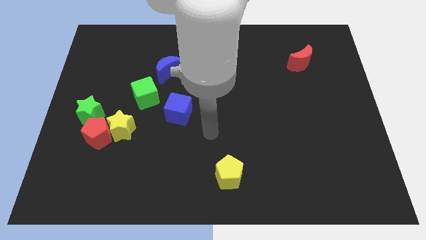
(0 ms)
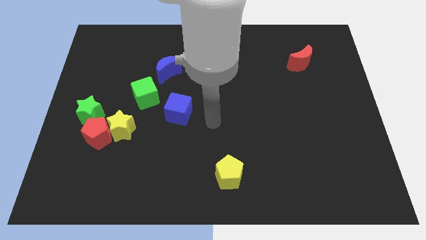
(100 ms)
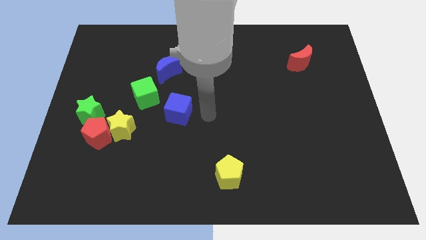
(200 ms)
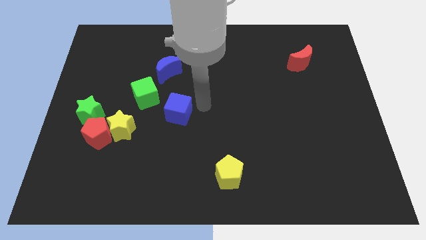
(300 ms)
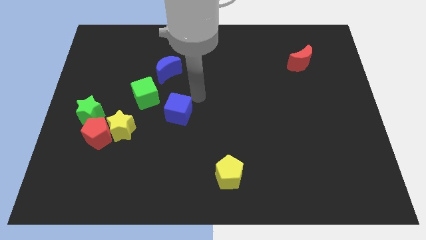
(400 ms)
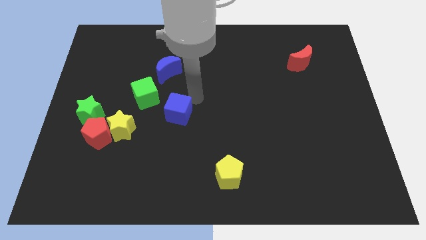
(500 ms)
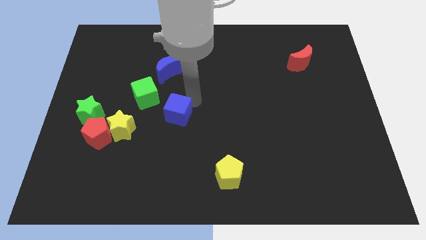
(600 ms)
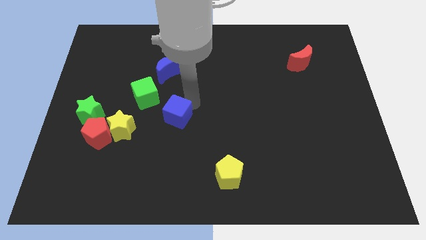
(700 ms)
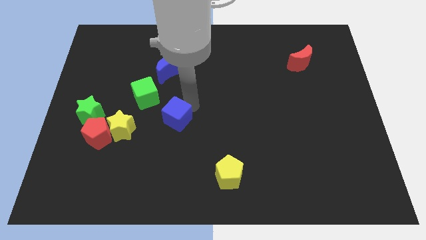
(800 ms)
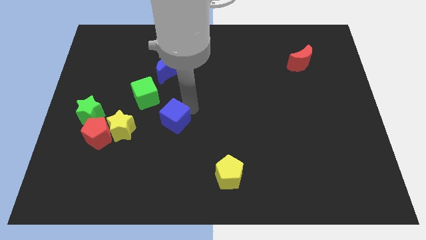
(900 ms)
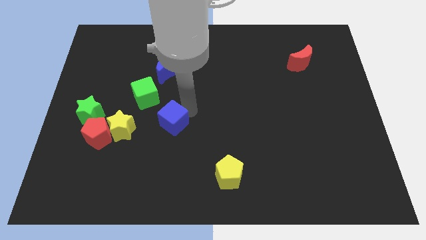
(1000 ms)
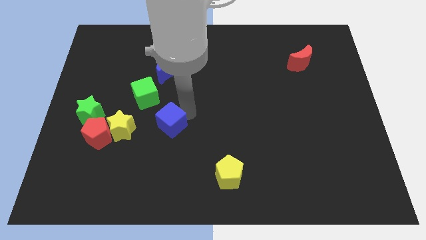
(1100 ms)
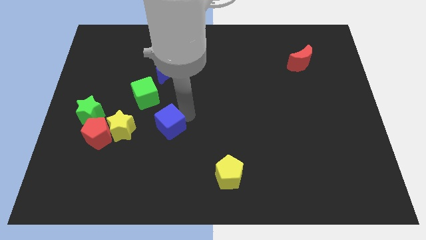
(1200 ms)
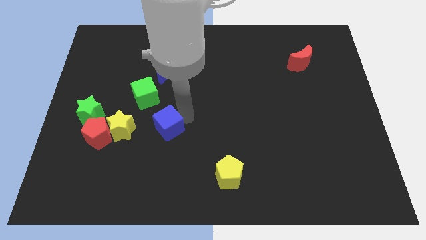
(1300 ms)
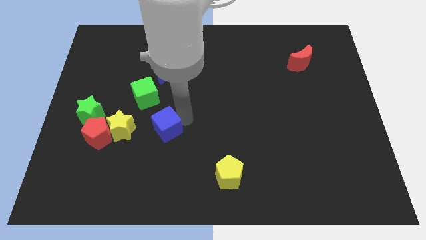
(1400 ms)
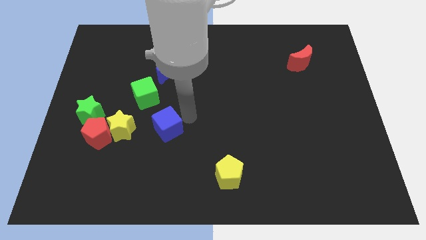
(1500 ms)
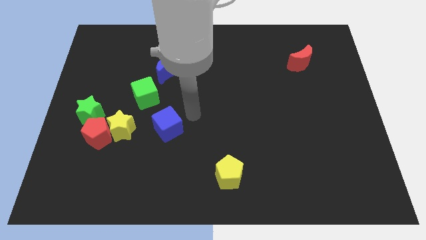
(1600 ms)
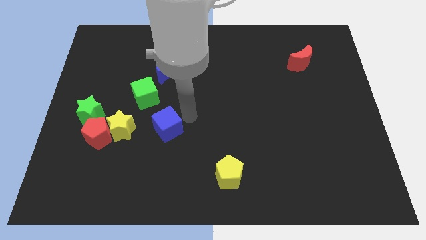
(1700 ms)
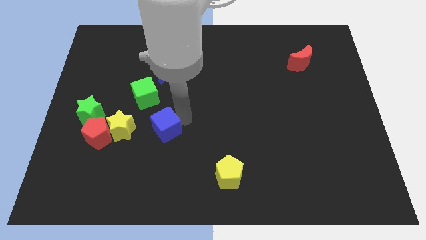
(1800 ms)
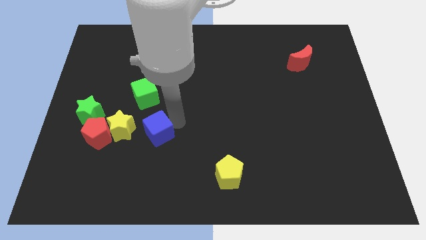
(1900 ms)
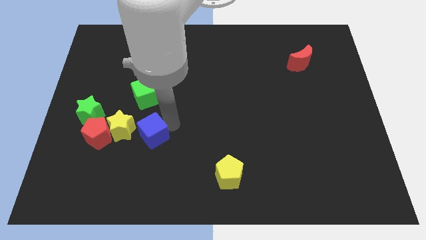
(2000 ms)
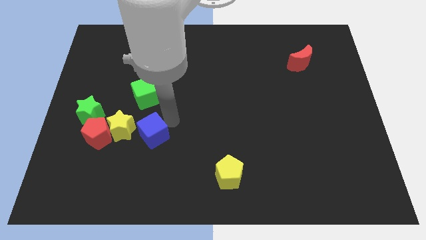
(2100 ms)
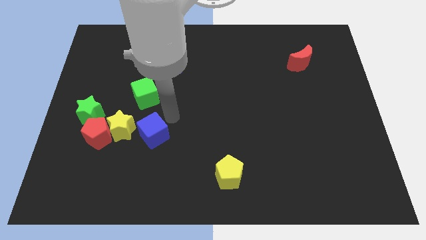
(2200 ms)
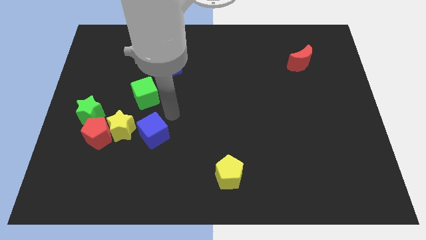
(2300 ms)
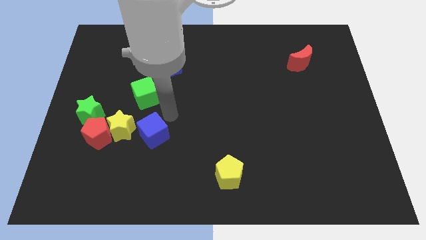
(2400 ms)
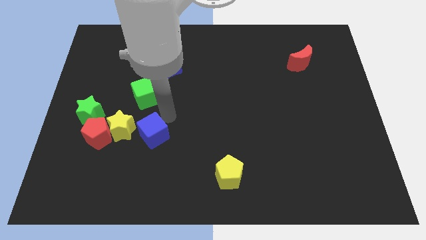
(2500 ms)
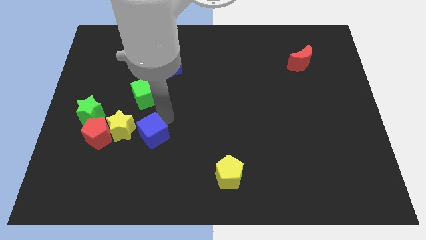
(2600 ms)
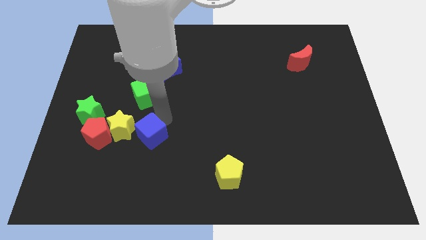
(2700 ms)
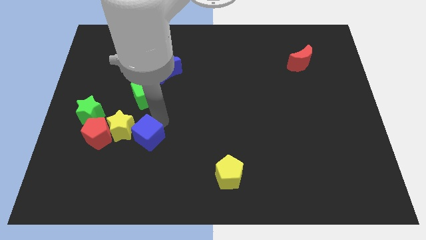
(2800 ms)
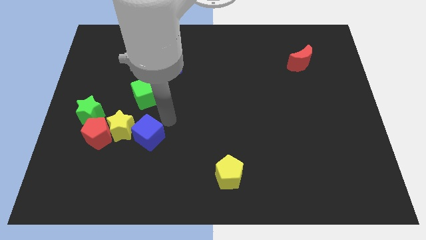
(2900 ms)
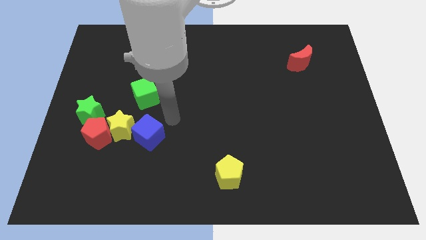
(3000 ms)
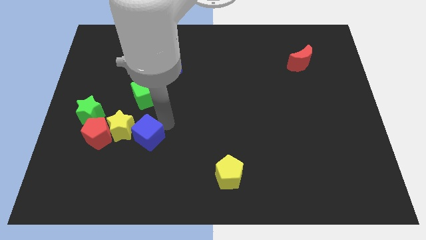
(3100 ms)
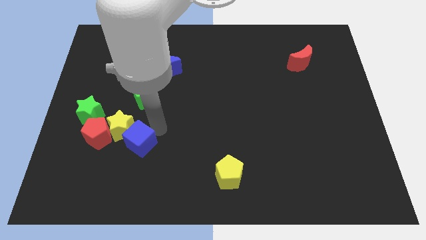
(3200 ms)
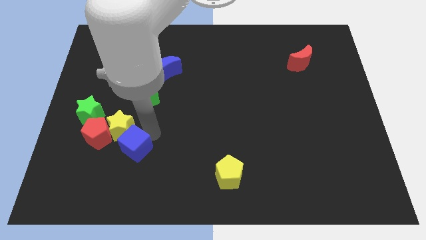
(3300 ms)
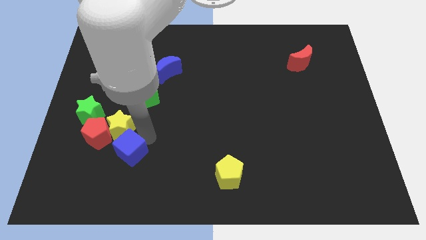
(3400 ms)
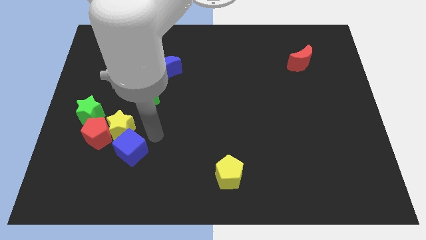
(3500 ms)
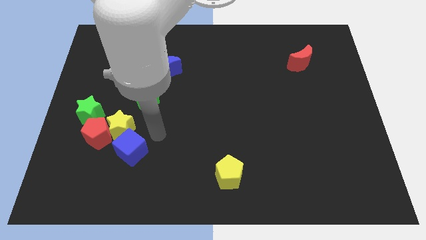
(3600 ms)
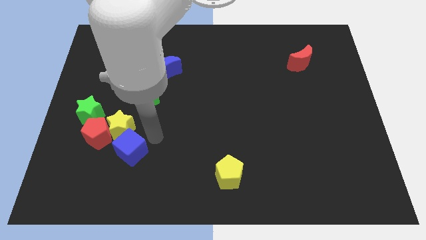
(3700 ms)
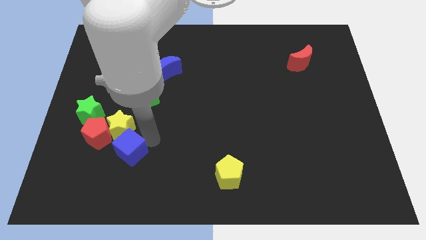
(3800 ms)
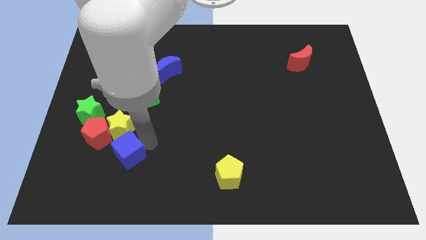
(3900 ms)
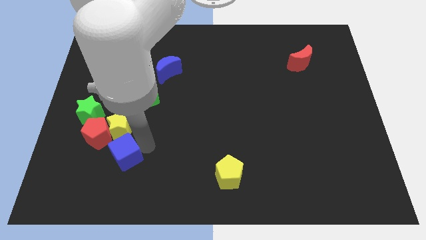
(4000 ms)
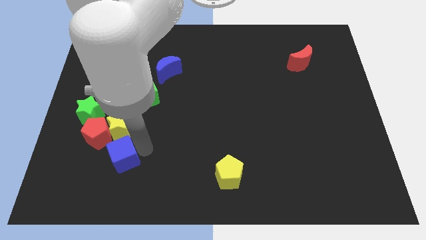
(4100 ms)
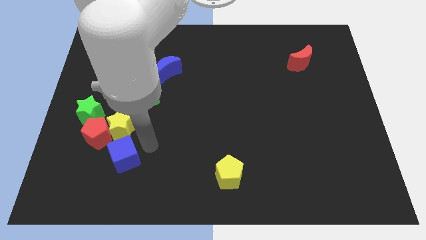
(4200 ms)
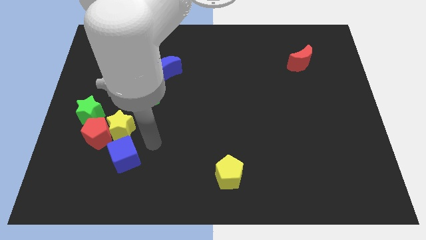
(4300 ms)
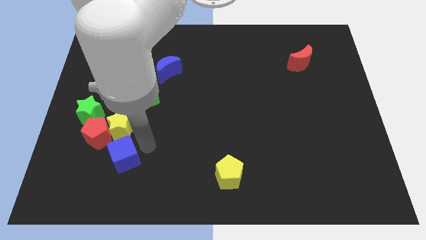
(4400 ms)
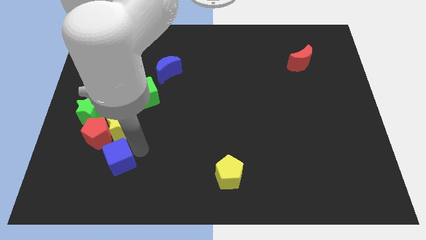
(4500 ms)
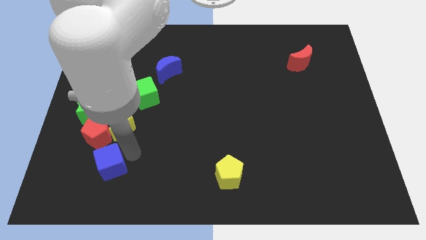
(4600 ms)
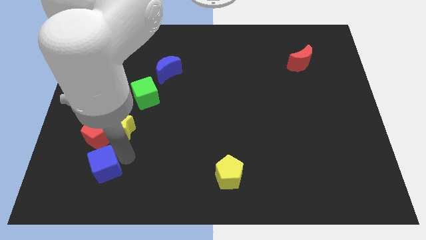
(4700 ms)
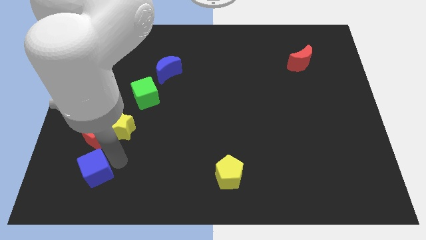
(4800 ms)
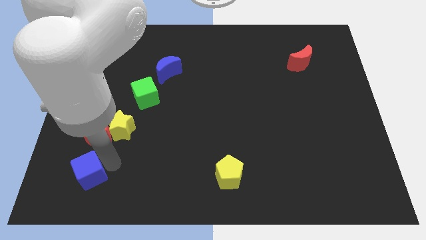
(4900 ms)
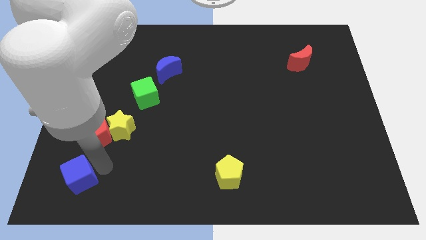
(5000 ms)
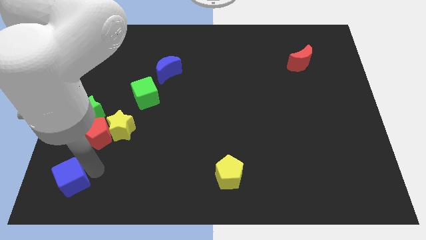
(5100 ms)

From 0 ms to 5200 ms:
slide the blue cube to the bottom left
